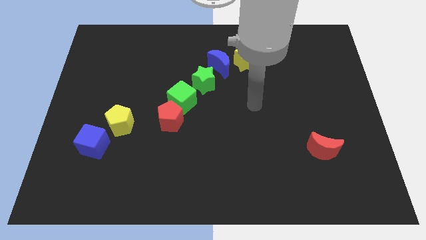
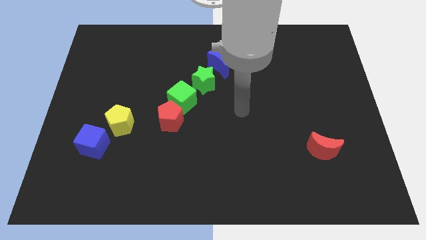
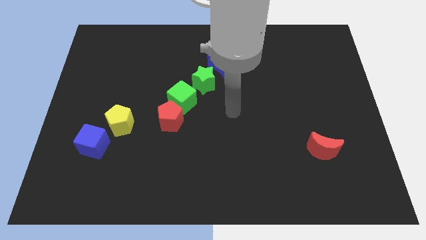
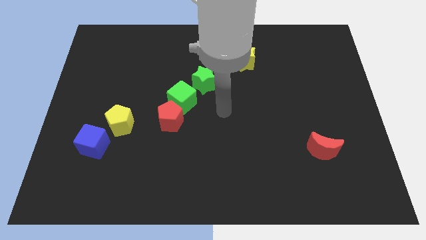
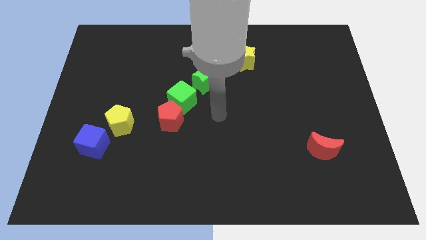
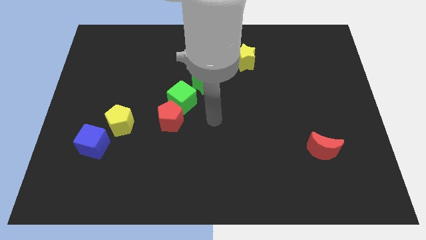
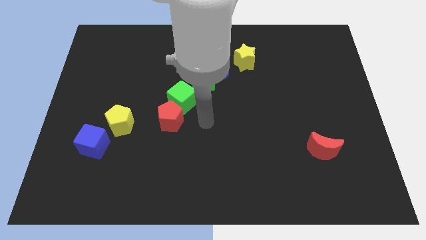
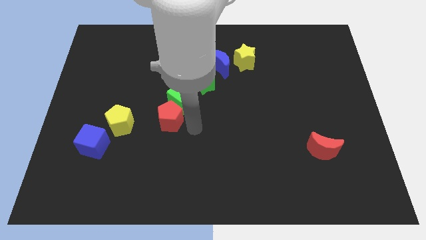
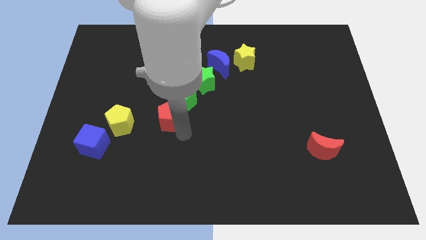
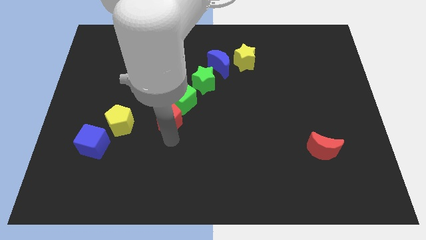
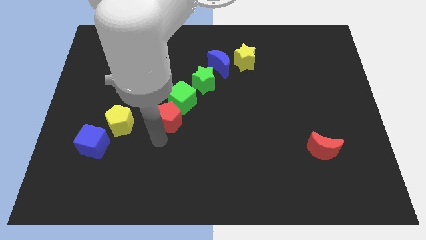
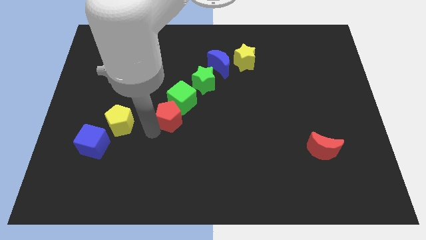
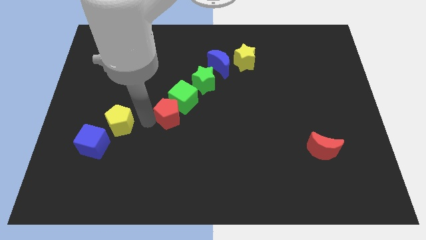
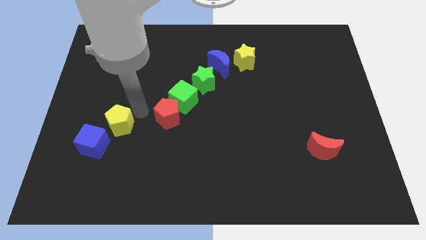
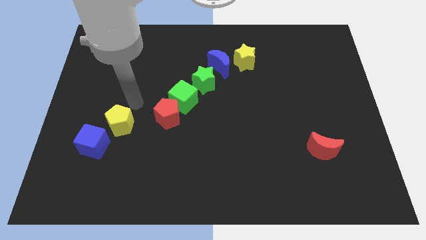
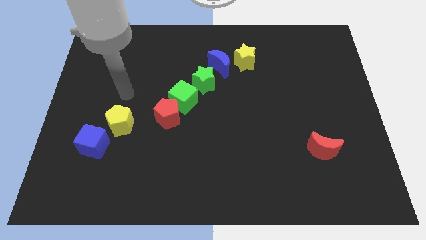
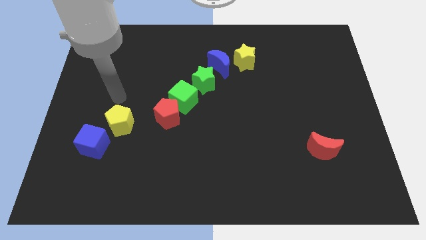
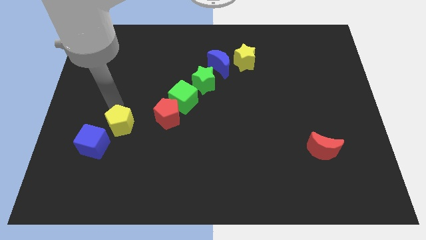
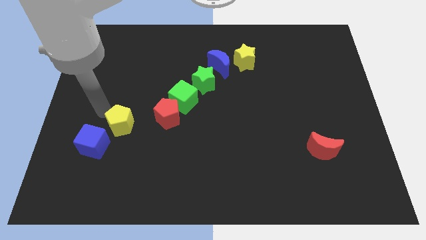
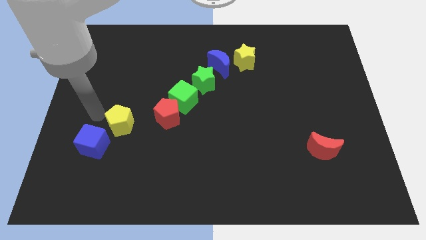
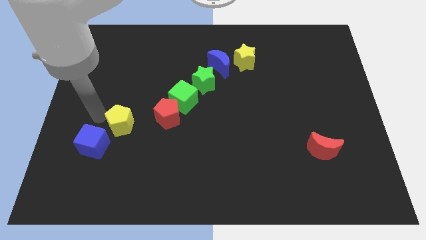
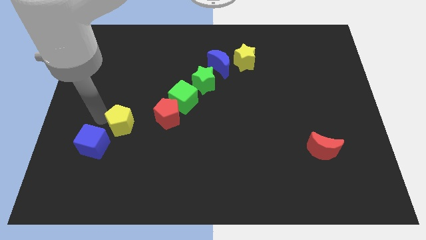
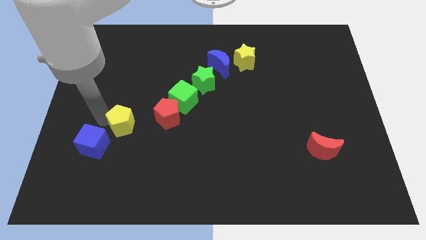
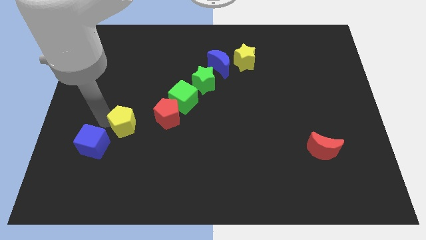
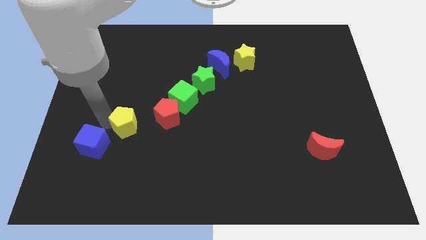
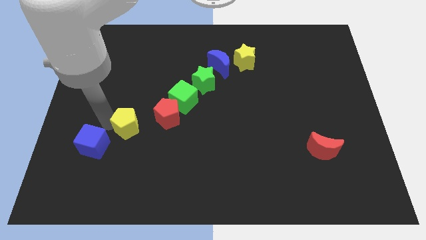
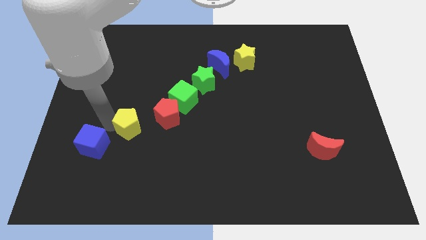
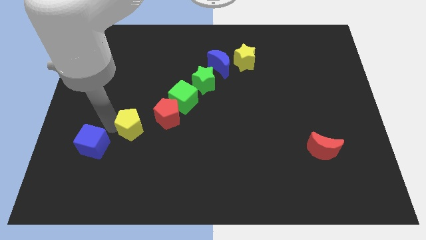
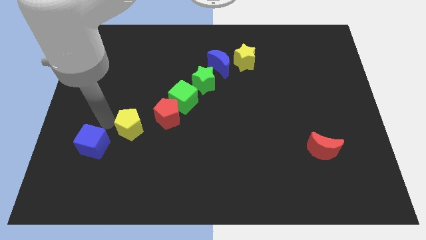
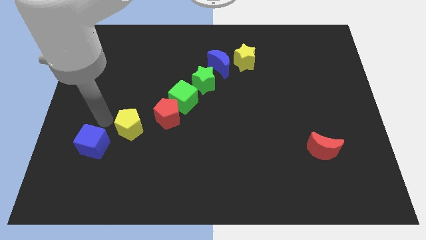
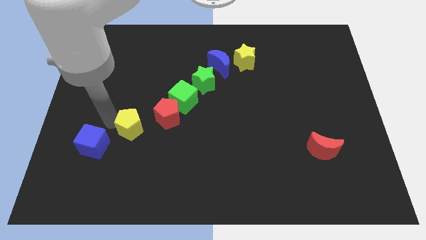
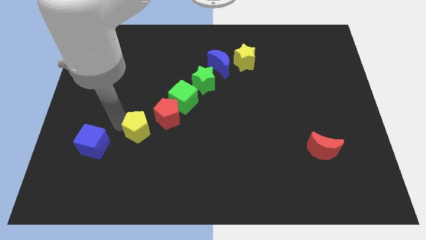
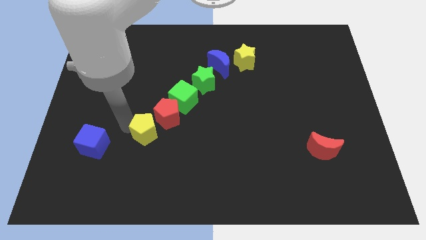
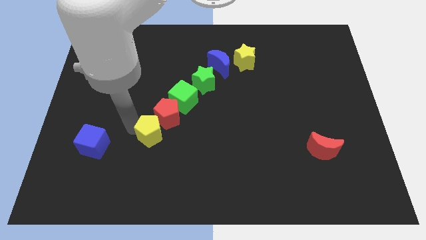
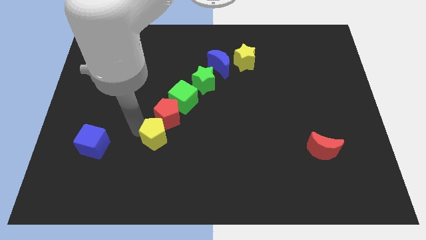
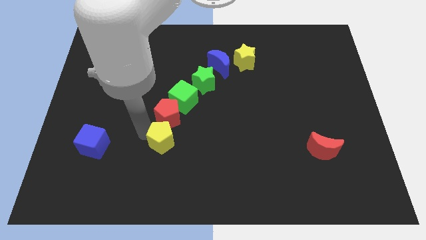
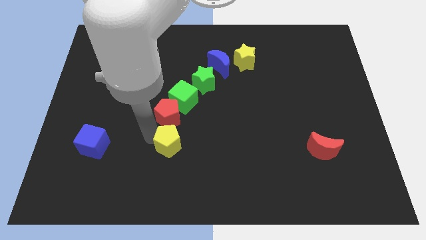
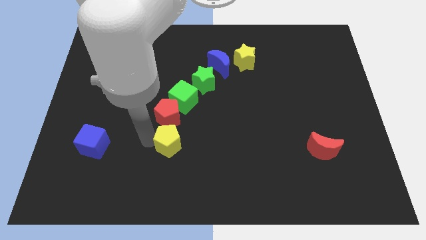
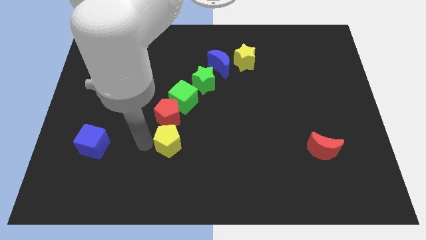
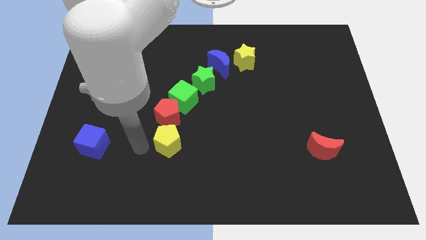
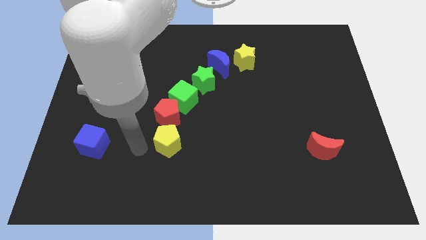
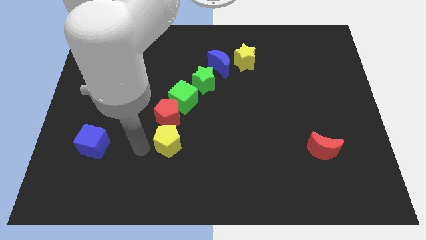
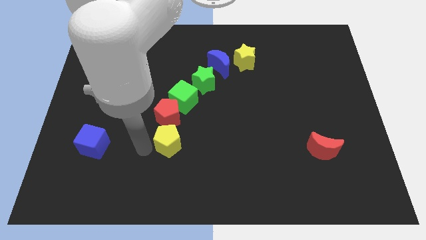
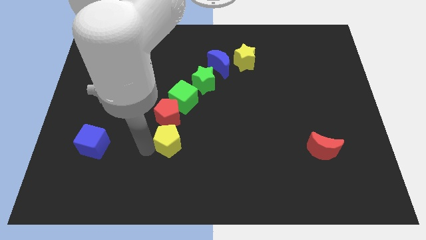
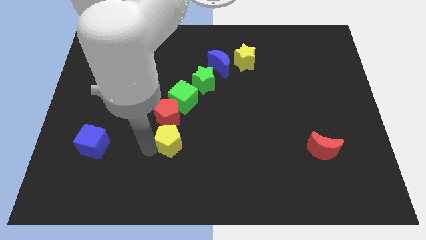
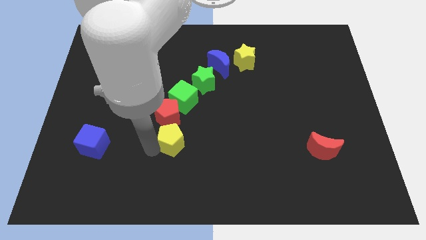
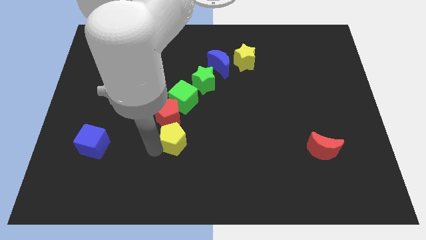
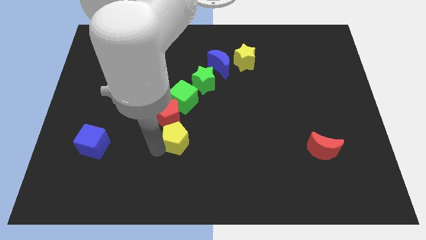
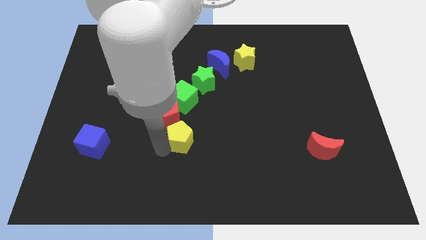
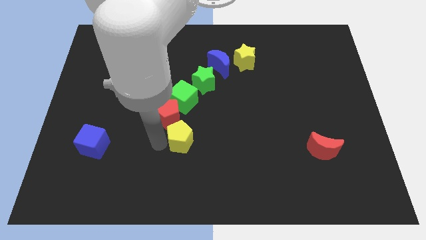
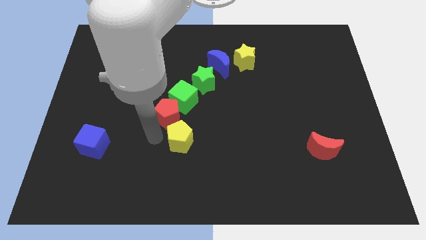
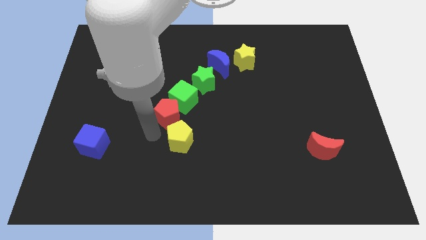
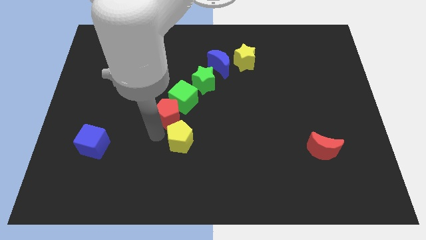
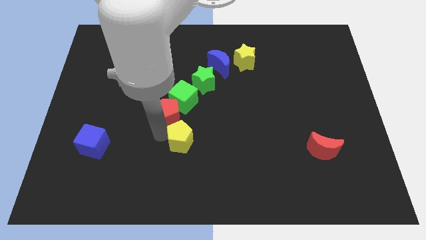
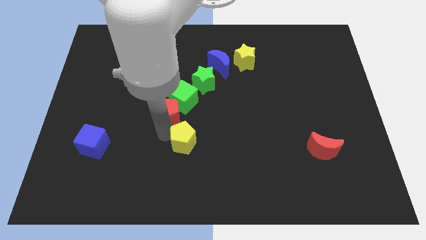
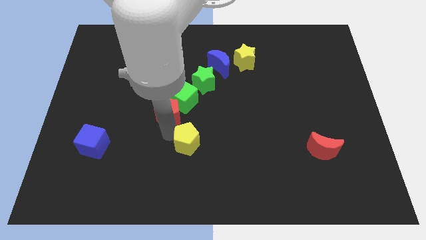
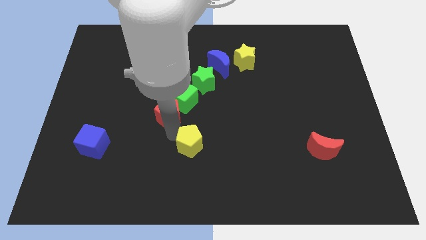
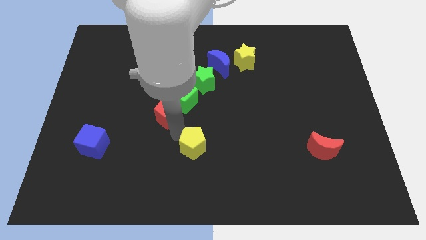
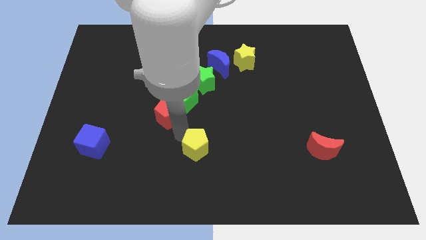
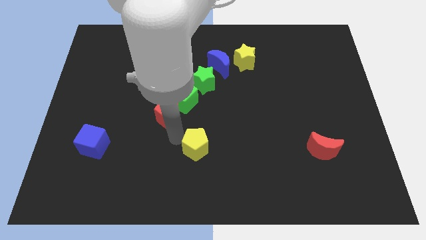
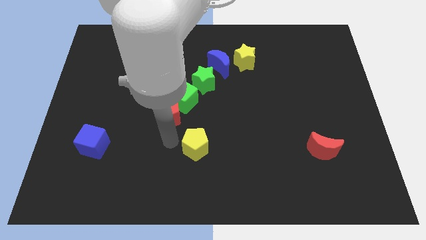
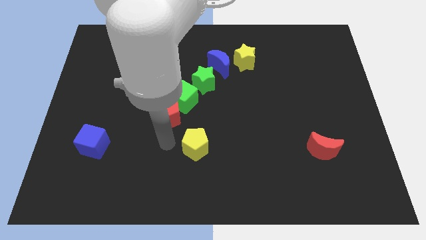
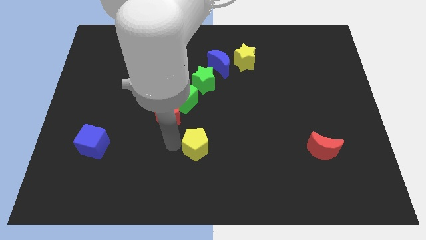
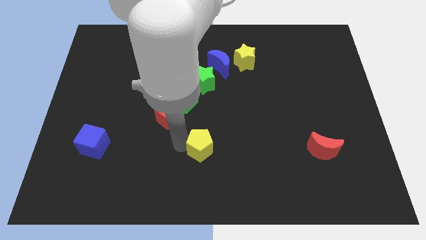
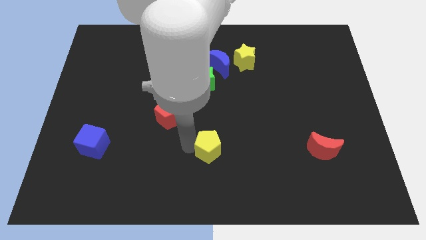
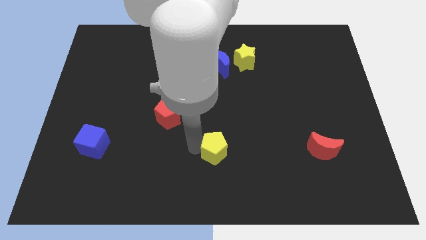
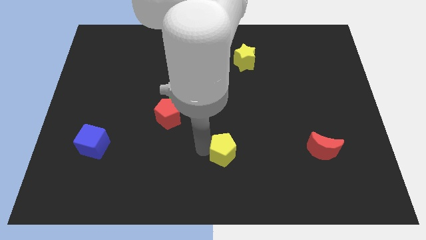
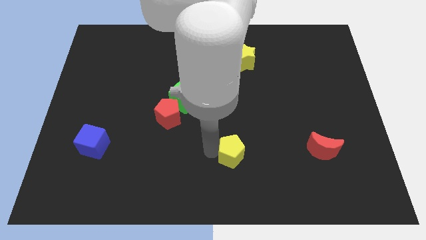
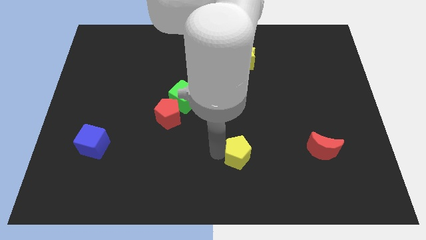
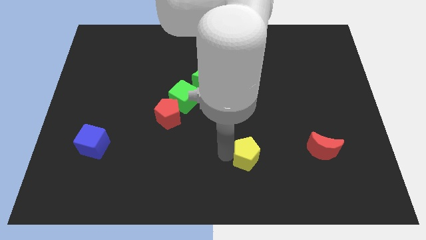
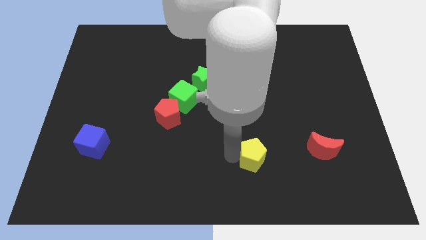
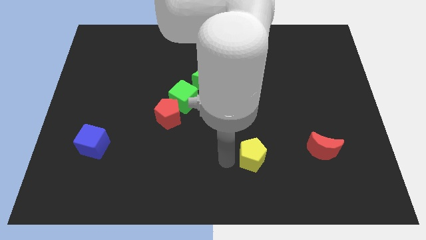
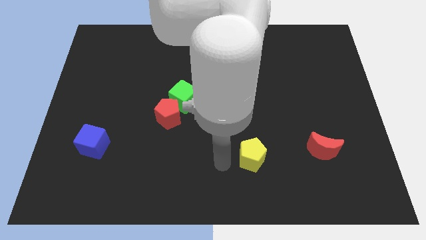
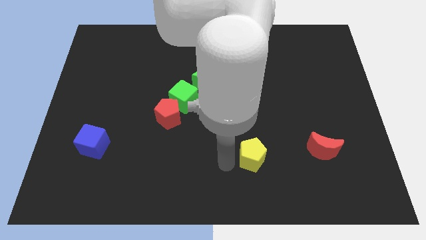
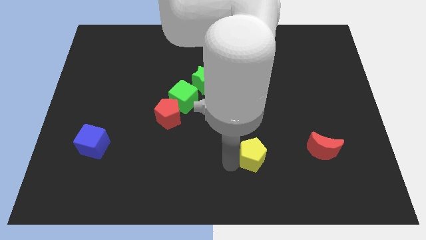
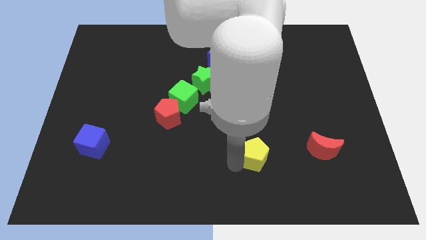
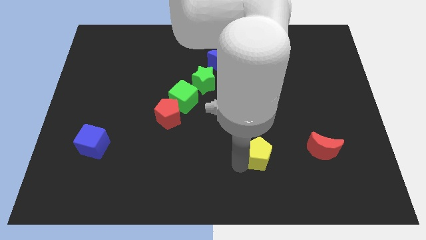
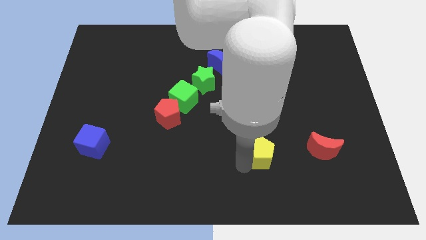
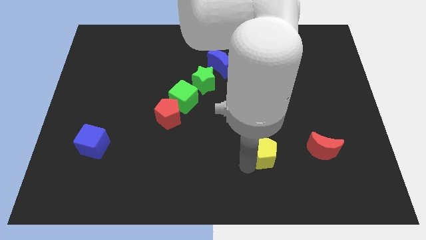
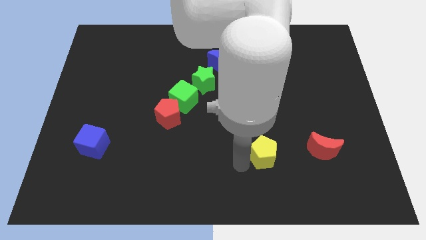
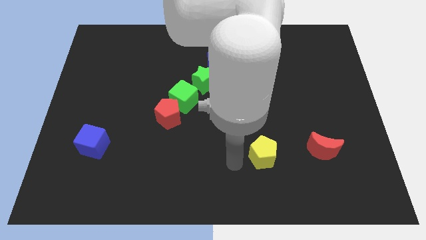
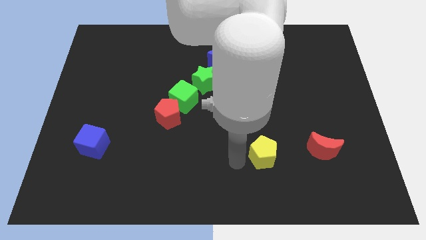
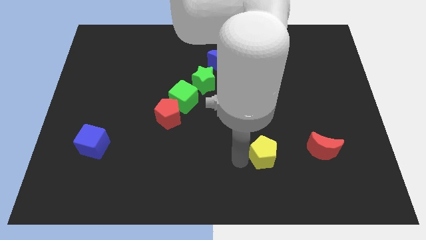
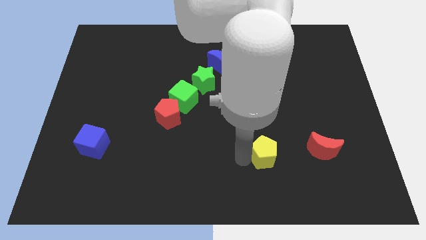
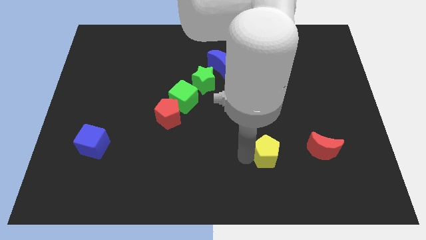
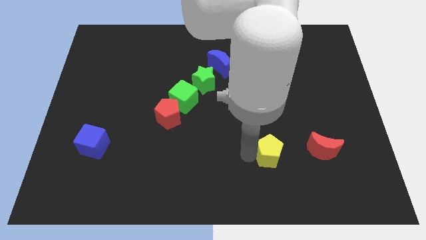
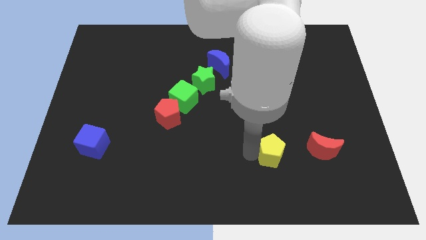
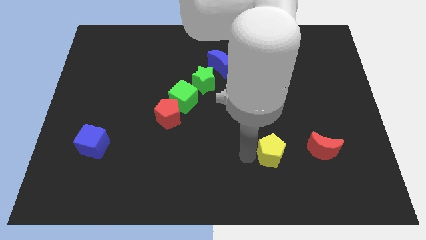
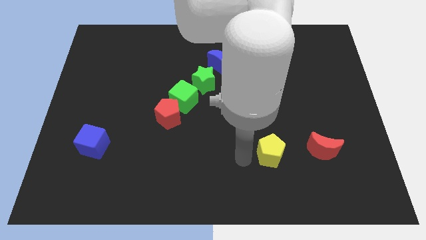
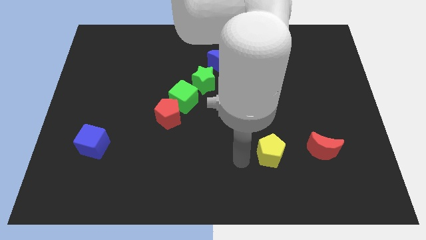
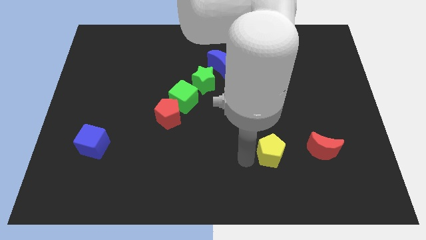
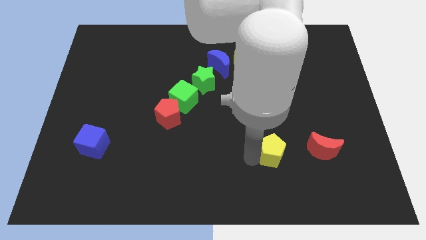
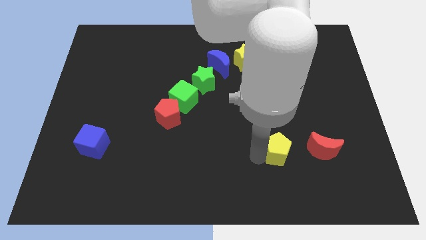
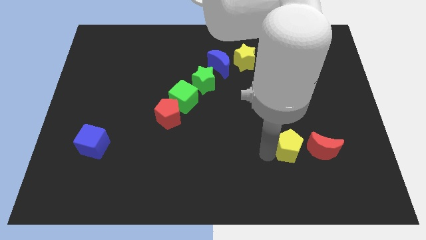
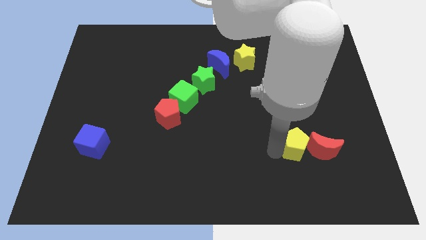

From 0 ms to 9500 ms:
slide the yellow pentagon to the red moon
